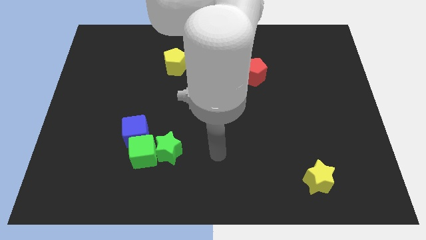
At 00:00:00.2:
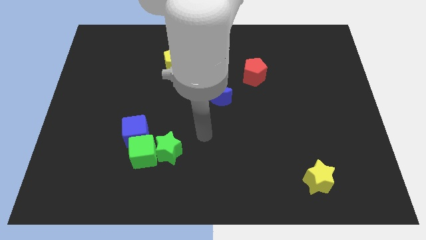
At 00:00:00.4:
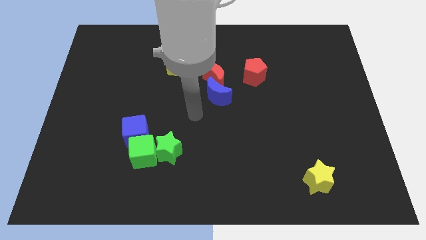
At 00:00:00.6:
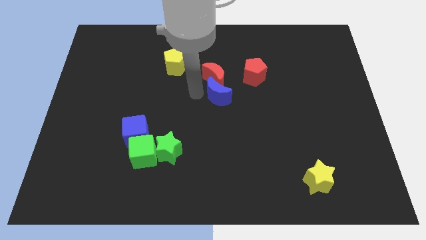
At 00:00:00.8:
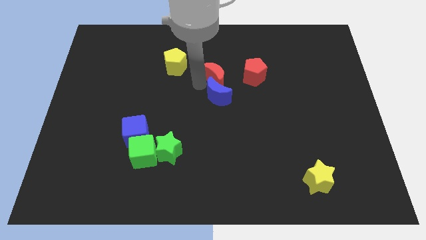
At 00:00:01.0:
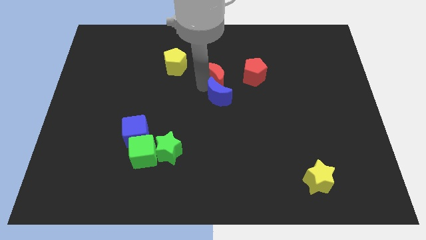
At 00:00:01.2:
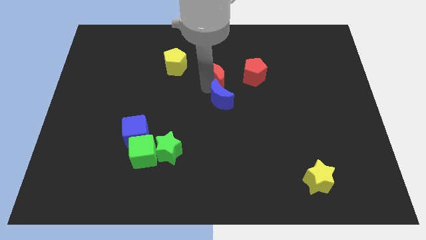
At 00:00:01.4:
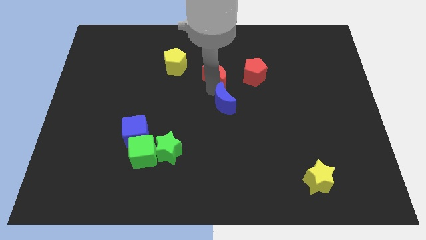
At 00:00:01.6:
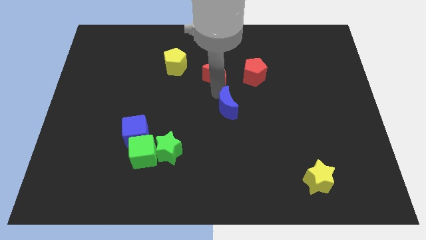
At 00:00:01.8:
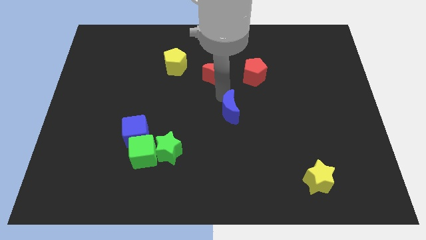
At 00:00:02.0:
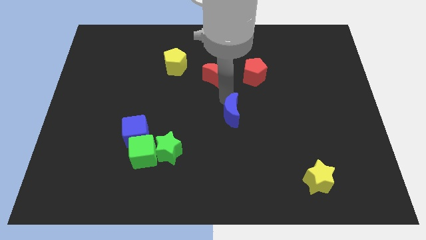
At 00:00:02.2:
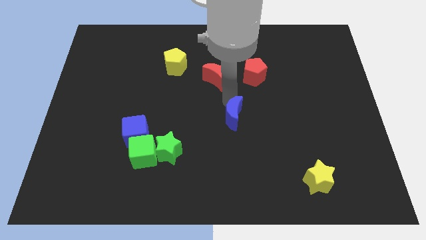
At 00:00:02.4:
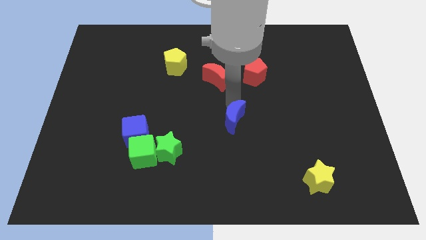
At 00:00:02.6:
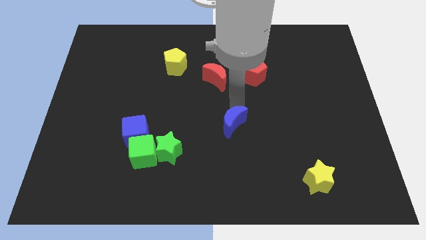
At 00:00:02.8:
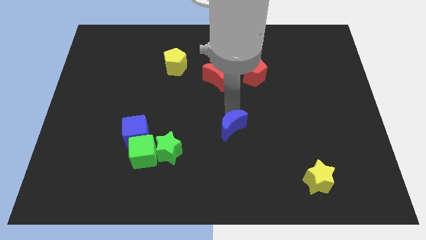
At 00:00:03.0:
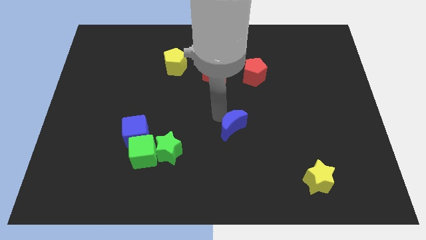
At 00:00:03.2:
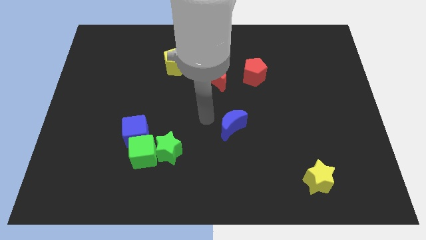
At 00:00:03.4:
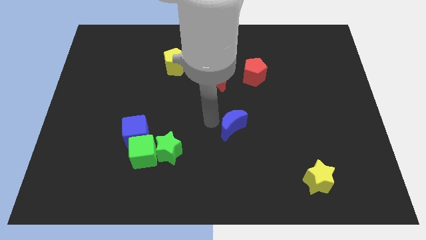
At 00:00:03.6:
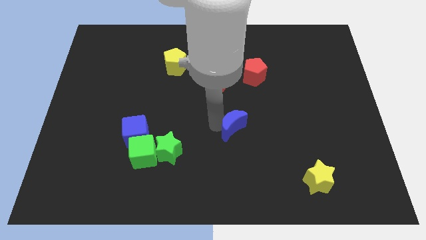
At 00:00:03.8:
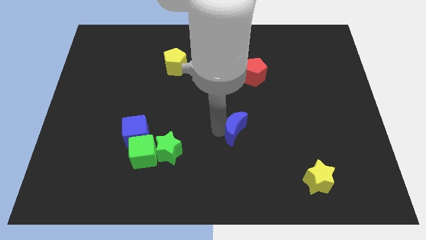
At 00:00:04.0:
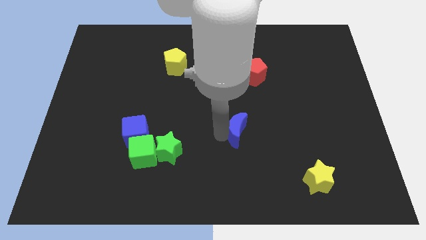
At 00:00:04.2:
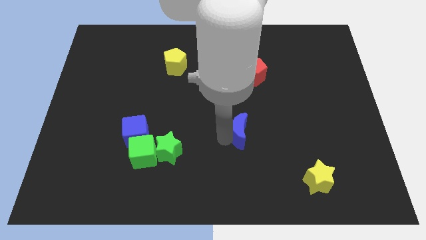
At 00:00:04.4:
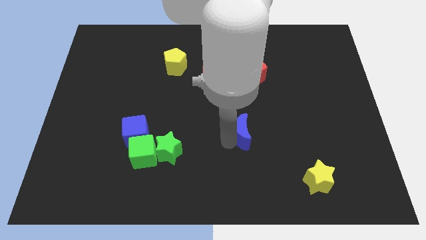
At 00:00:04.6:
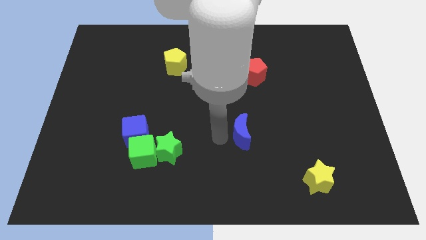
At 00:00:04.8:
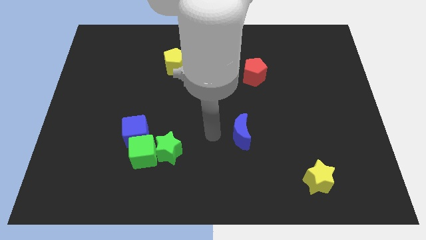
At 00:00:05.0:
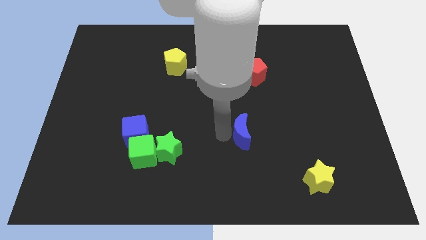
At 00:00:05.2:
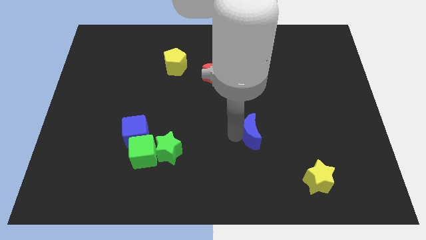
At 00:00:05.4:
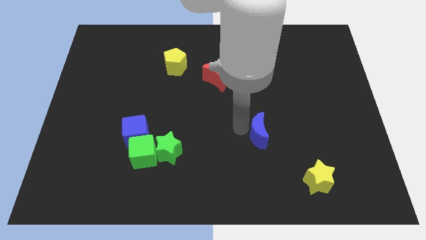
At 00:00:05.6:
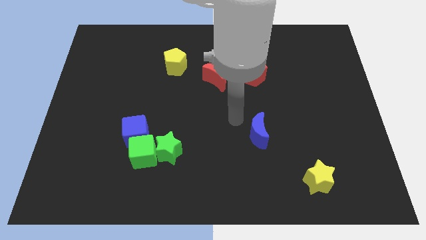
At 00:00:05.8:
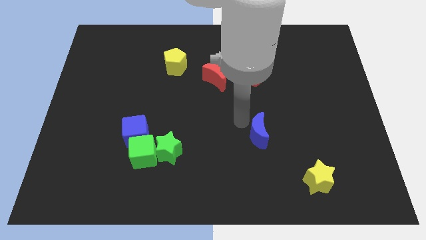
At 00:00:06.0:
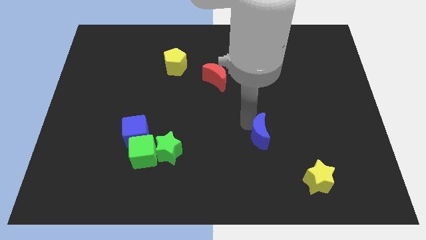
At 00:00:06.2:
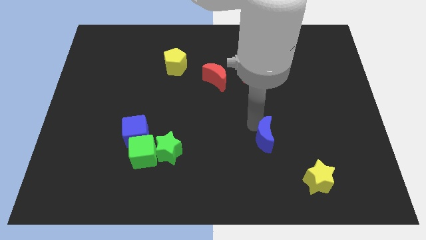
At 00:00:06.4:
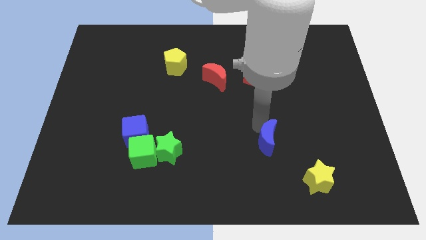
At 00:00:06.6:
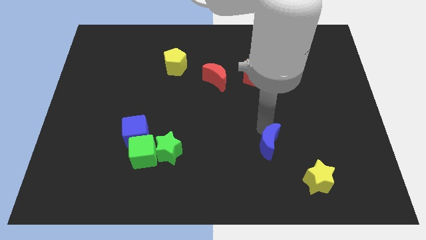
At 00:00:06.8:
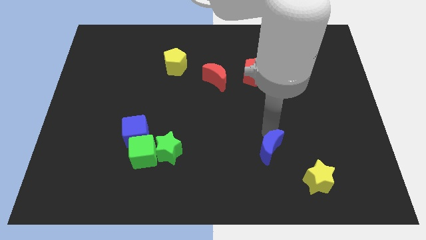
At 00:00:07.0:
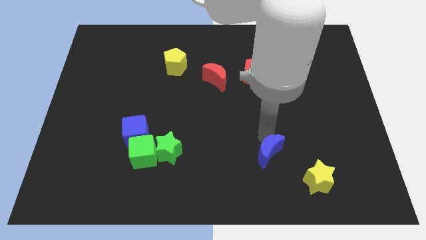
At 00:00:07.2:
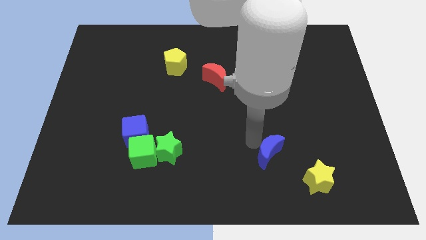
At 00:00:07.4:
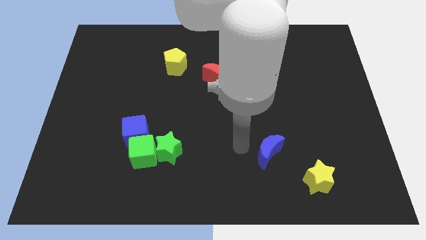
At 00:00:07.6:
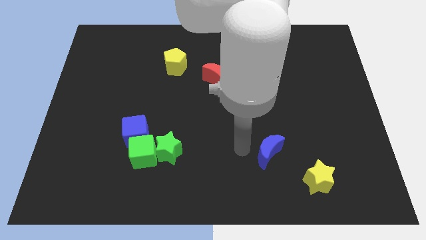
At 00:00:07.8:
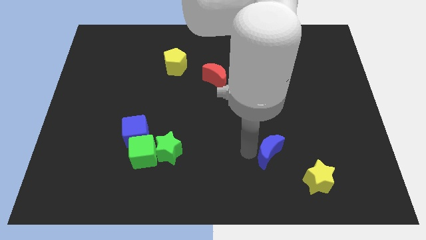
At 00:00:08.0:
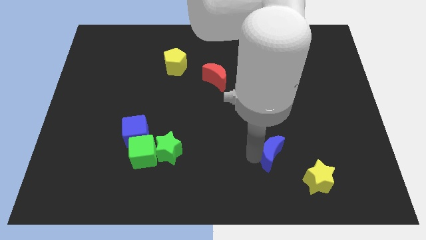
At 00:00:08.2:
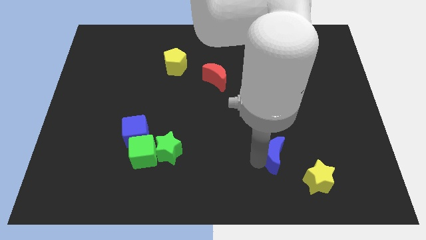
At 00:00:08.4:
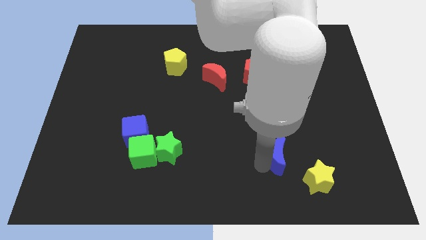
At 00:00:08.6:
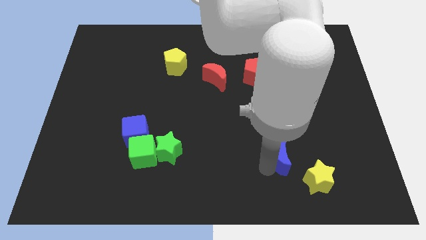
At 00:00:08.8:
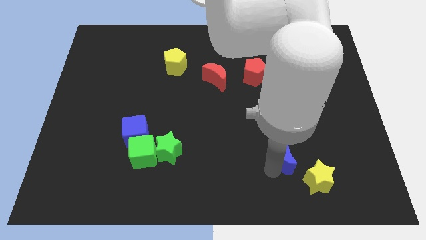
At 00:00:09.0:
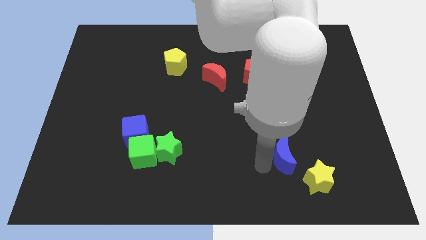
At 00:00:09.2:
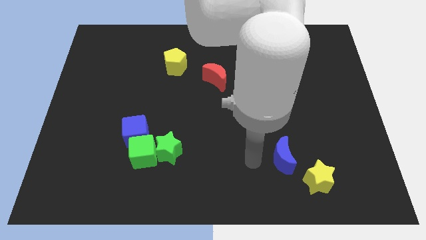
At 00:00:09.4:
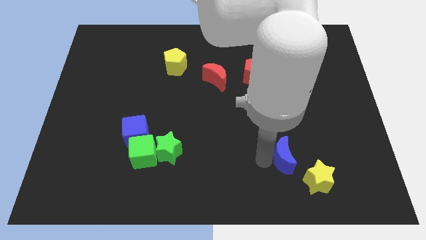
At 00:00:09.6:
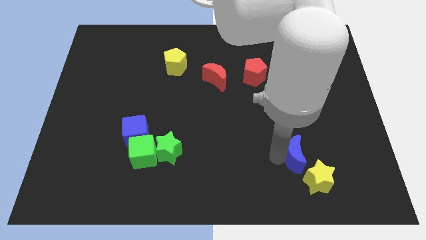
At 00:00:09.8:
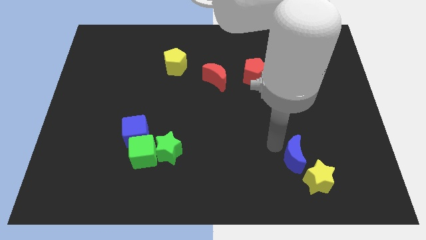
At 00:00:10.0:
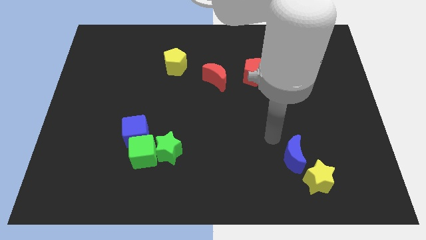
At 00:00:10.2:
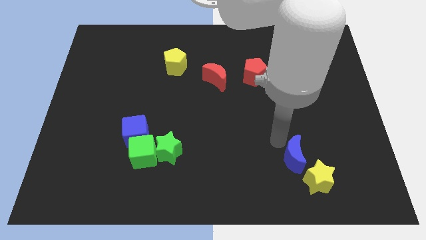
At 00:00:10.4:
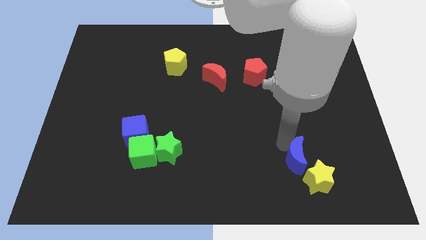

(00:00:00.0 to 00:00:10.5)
push the blue moon towards the yellow star

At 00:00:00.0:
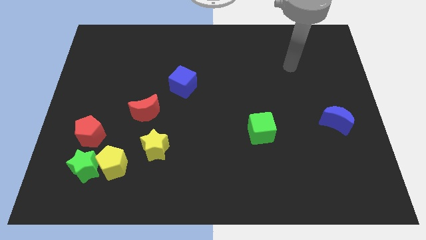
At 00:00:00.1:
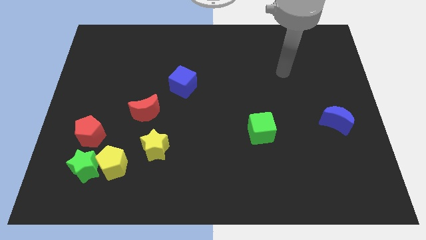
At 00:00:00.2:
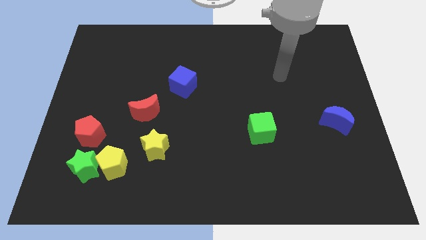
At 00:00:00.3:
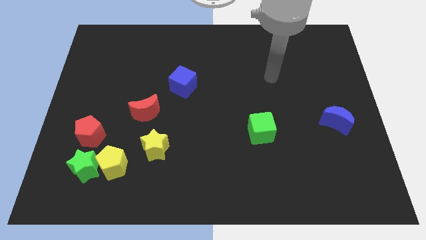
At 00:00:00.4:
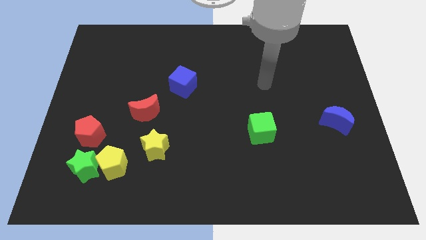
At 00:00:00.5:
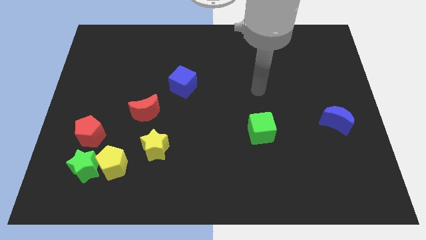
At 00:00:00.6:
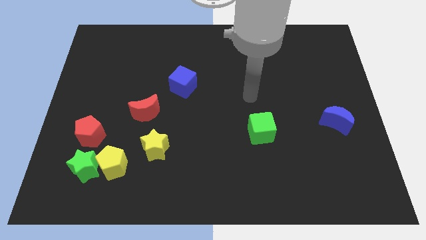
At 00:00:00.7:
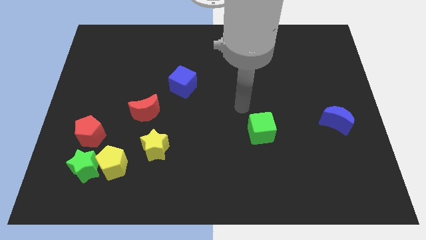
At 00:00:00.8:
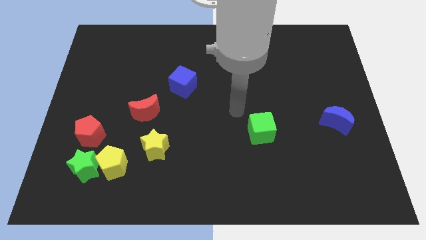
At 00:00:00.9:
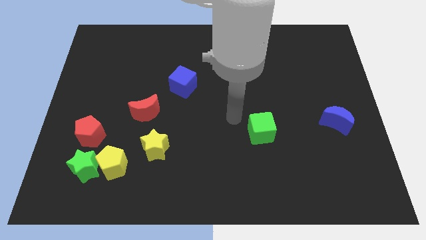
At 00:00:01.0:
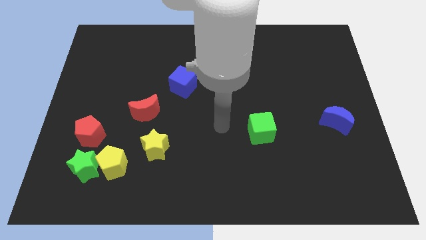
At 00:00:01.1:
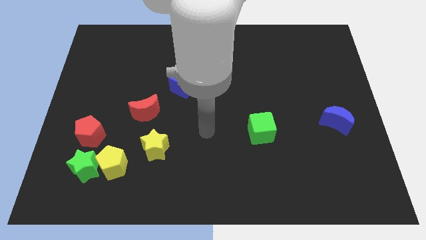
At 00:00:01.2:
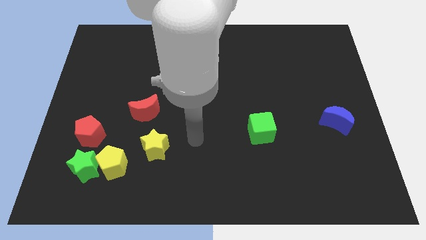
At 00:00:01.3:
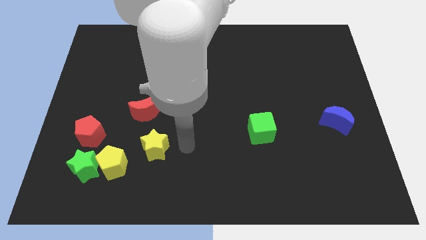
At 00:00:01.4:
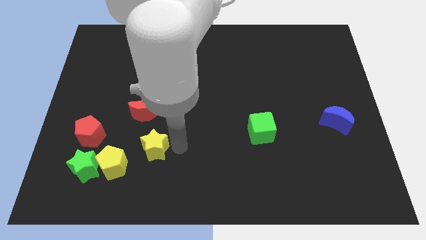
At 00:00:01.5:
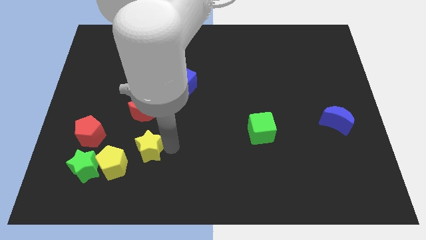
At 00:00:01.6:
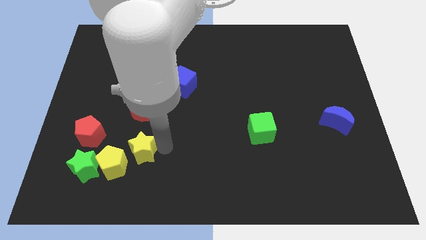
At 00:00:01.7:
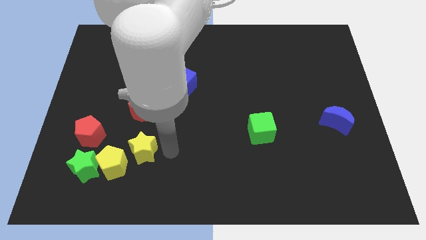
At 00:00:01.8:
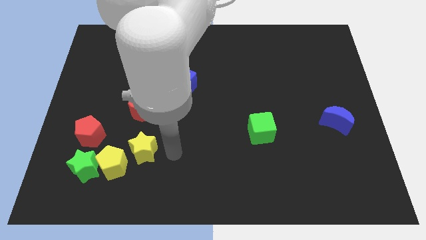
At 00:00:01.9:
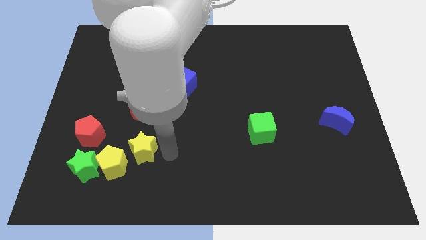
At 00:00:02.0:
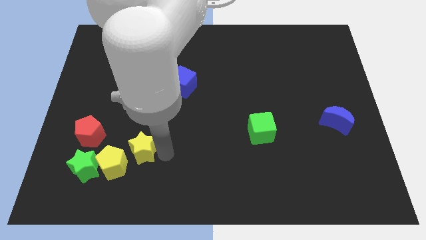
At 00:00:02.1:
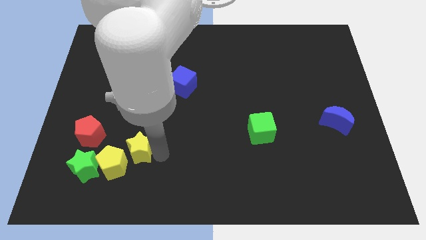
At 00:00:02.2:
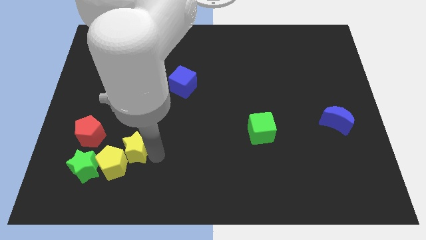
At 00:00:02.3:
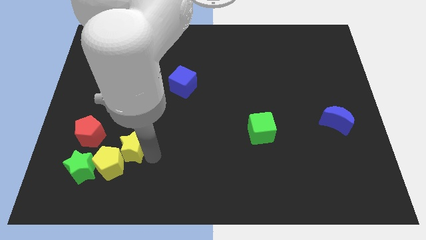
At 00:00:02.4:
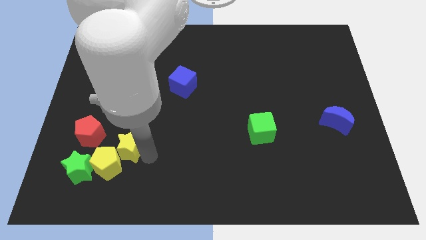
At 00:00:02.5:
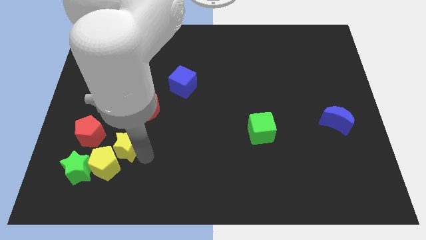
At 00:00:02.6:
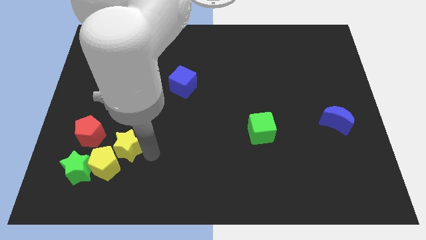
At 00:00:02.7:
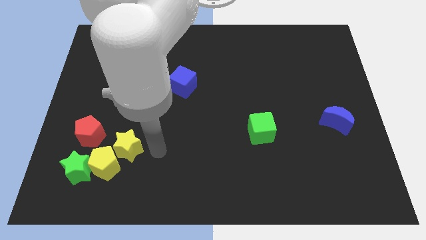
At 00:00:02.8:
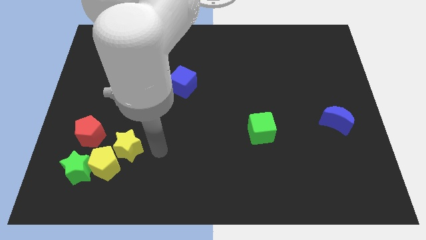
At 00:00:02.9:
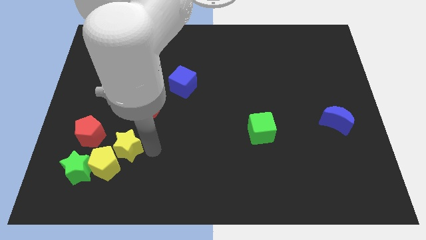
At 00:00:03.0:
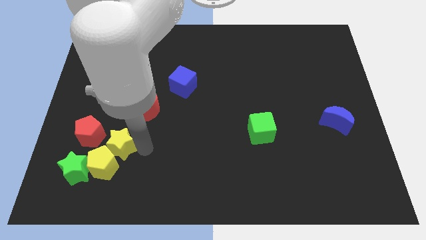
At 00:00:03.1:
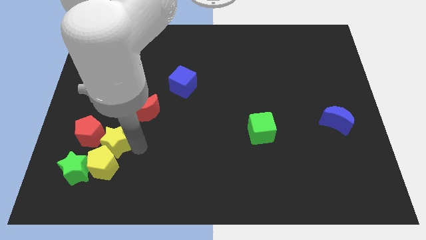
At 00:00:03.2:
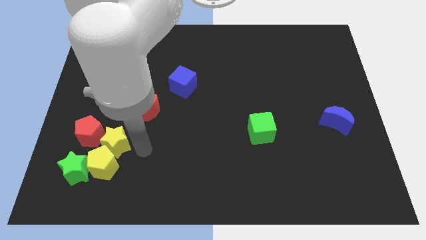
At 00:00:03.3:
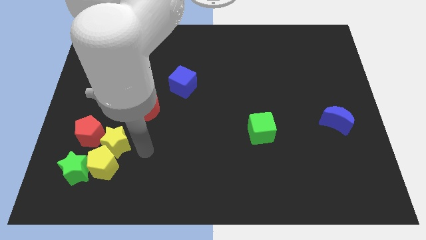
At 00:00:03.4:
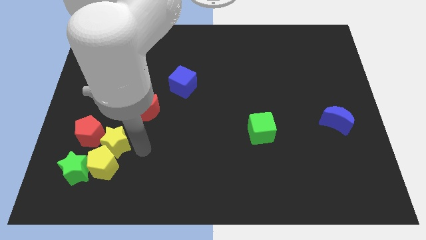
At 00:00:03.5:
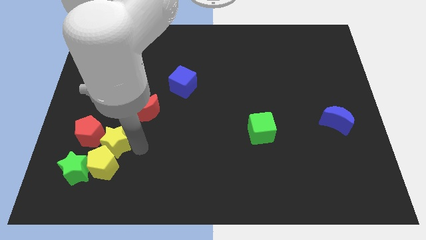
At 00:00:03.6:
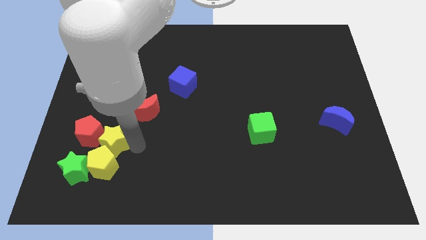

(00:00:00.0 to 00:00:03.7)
move the yellow star to the red pentagon
